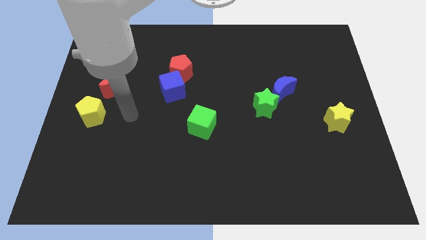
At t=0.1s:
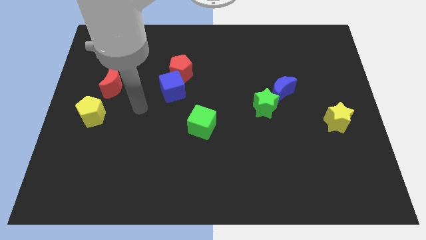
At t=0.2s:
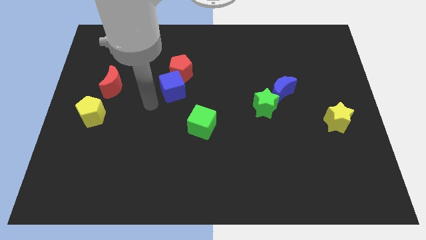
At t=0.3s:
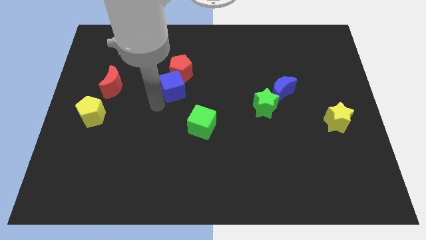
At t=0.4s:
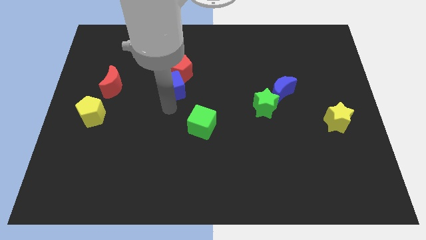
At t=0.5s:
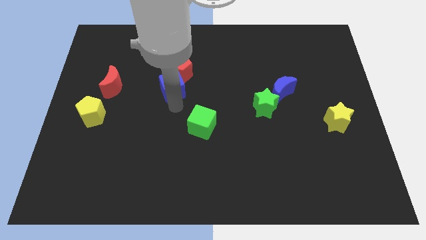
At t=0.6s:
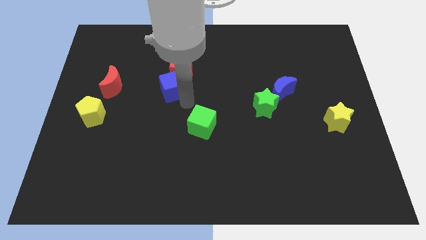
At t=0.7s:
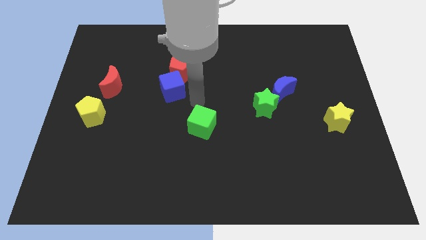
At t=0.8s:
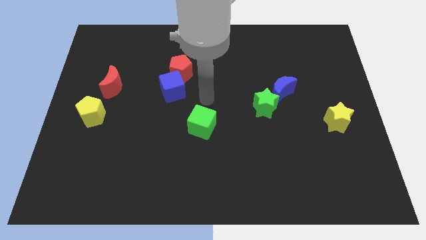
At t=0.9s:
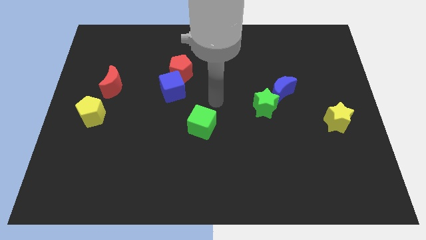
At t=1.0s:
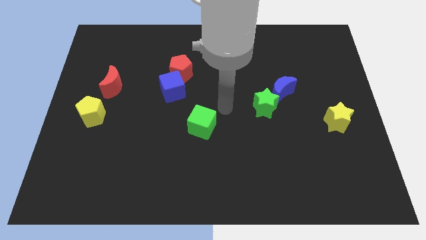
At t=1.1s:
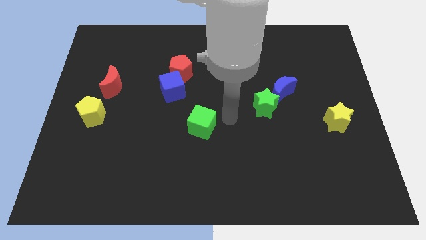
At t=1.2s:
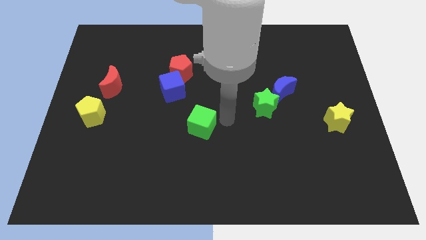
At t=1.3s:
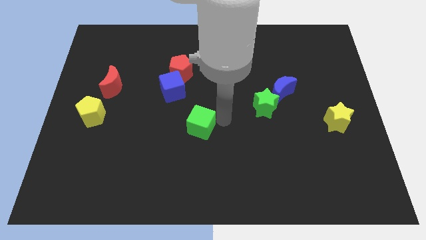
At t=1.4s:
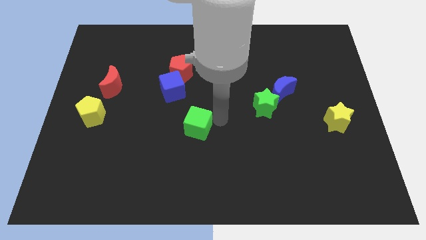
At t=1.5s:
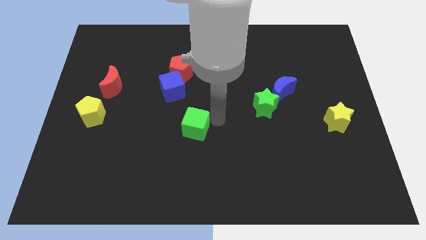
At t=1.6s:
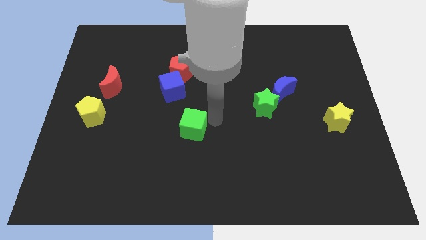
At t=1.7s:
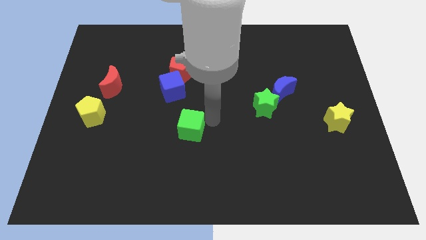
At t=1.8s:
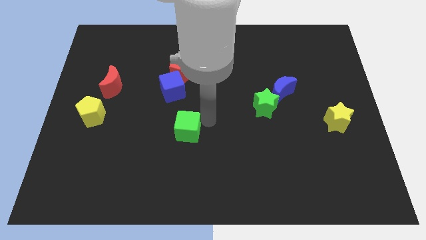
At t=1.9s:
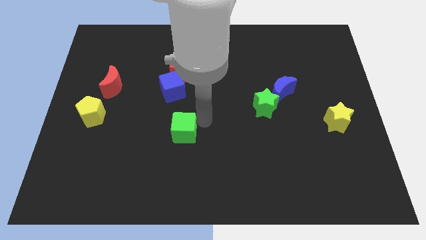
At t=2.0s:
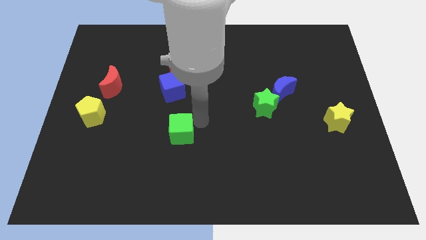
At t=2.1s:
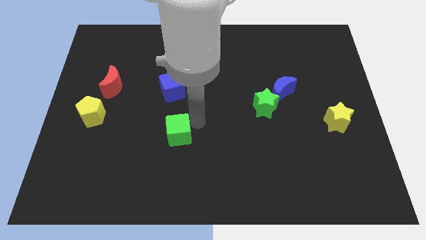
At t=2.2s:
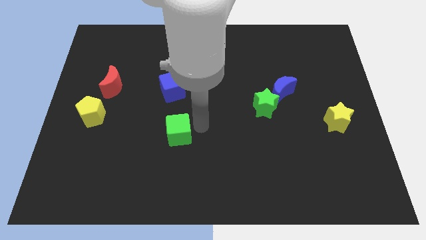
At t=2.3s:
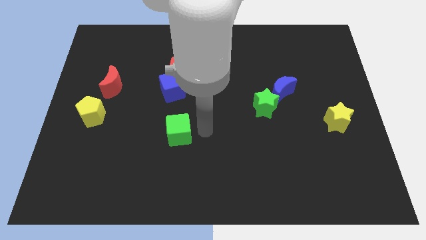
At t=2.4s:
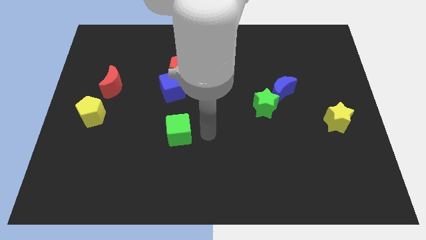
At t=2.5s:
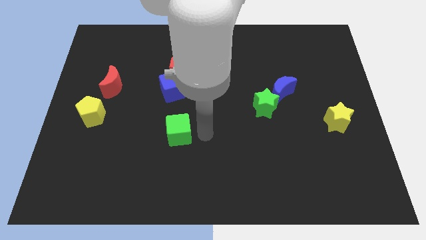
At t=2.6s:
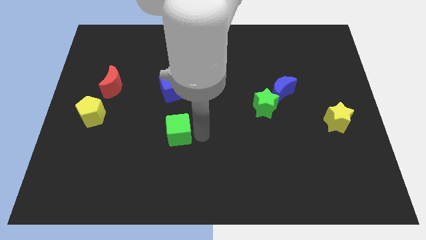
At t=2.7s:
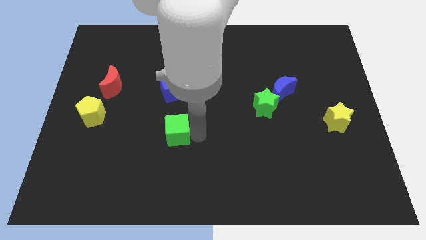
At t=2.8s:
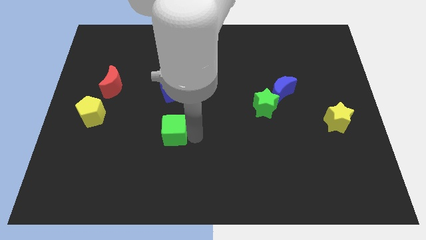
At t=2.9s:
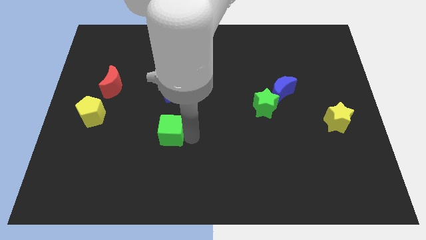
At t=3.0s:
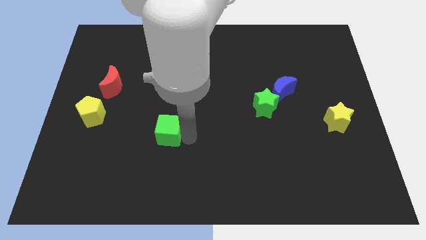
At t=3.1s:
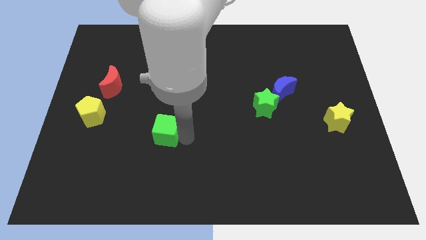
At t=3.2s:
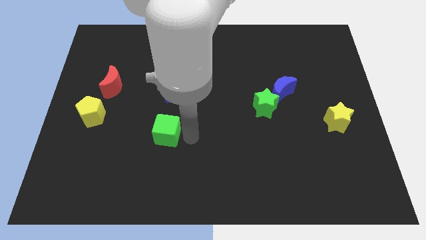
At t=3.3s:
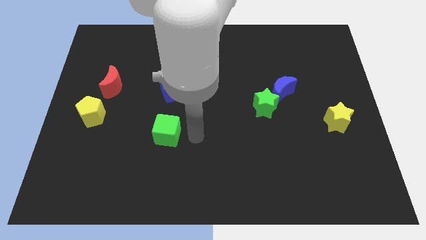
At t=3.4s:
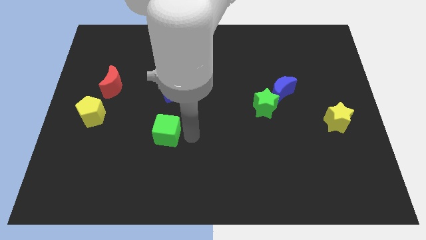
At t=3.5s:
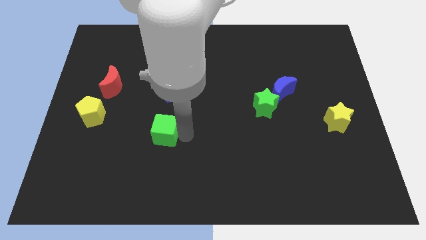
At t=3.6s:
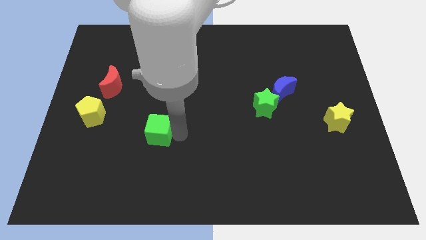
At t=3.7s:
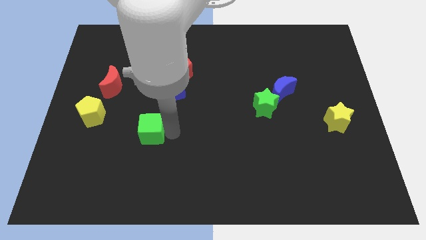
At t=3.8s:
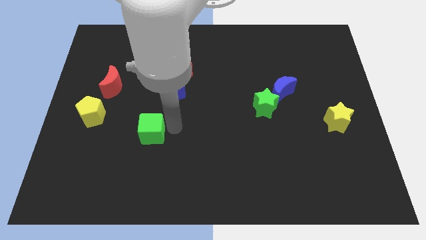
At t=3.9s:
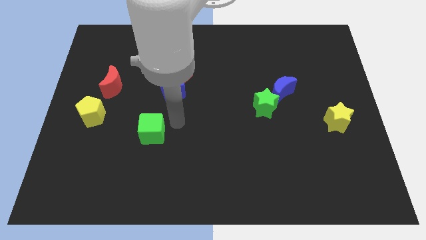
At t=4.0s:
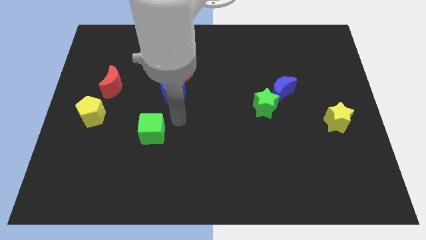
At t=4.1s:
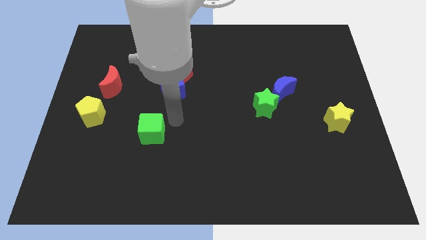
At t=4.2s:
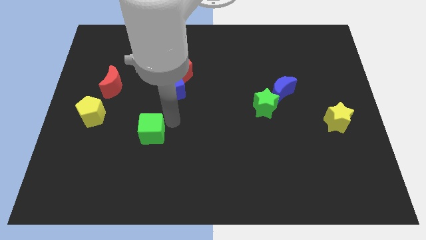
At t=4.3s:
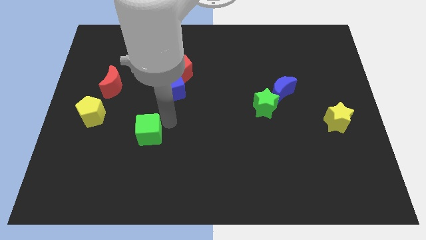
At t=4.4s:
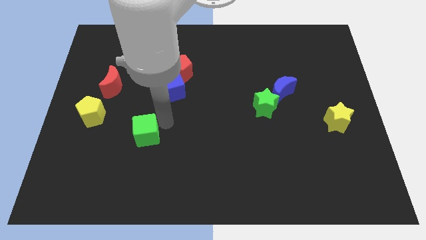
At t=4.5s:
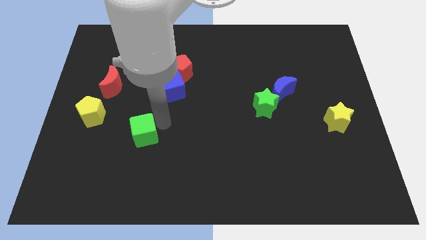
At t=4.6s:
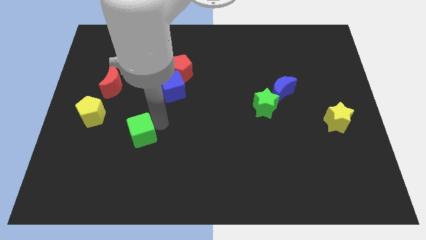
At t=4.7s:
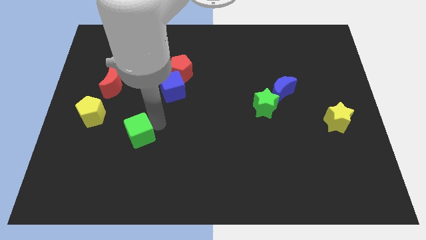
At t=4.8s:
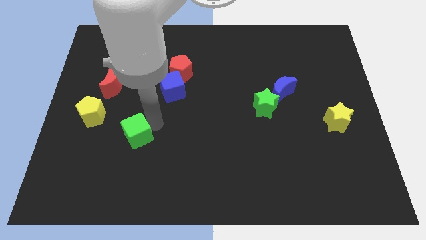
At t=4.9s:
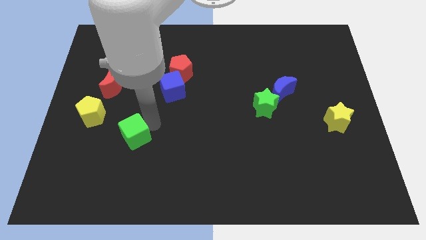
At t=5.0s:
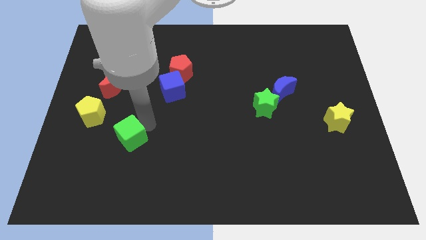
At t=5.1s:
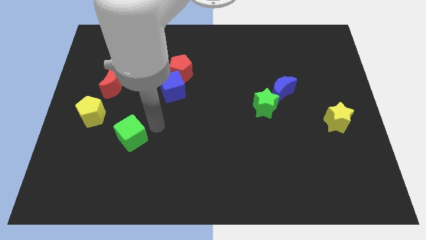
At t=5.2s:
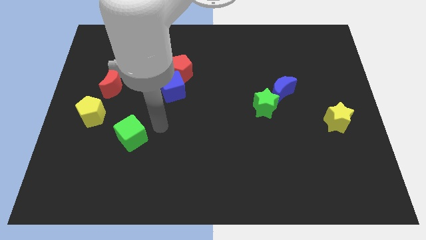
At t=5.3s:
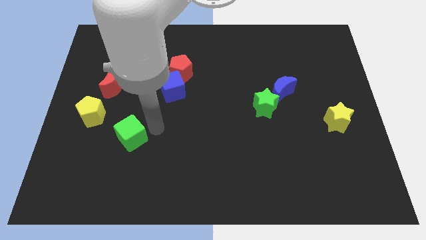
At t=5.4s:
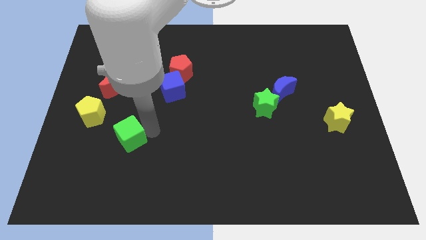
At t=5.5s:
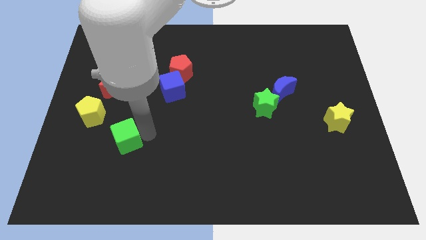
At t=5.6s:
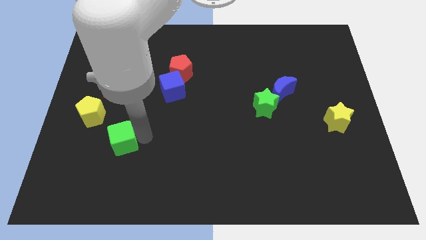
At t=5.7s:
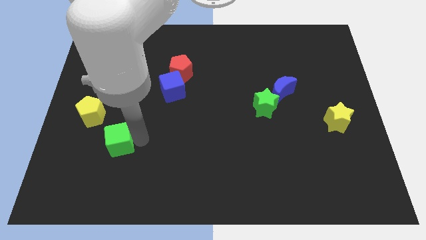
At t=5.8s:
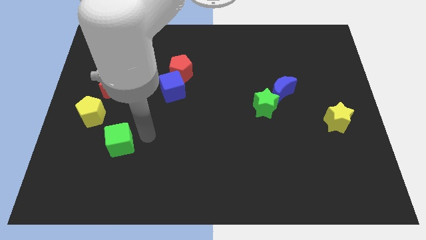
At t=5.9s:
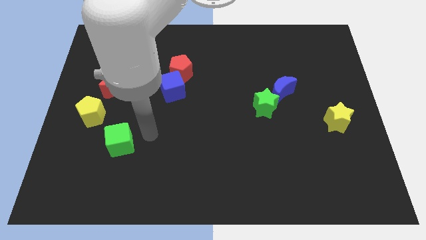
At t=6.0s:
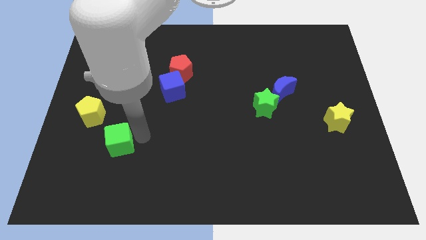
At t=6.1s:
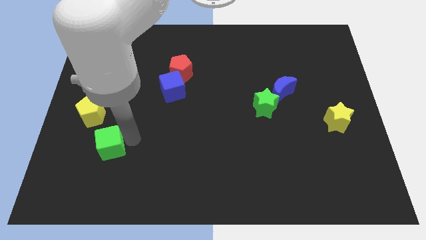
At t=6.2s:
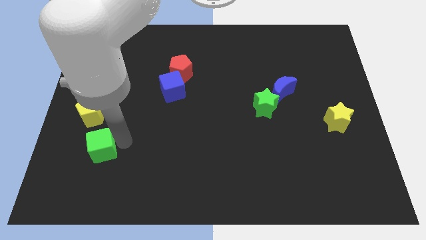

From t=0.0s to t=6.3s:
push the green cube to the bottom of the yellow pentagon

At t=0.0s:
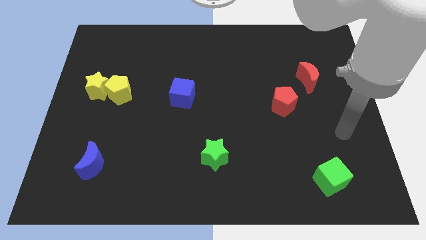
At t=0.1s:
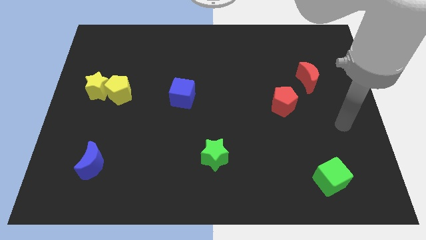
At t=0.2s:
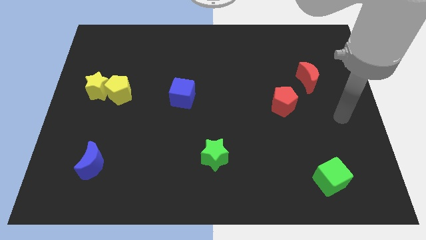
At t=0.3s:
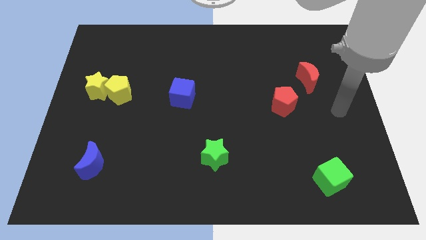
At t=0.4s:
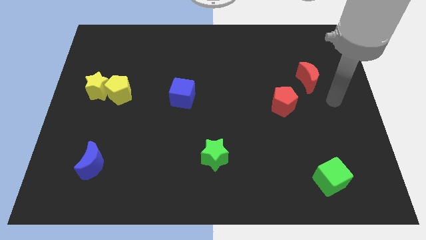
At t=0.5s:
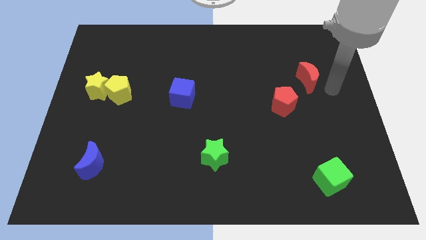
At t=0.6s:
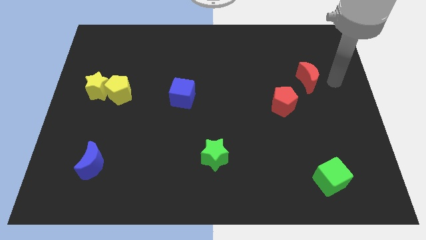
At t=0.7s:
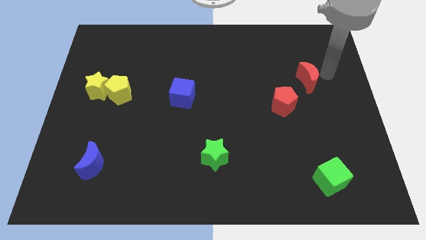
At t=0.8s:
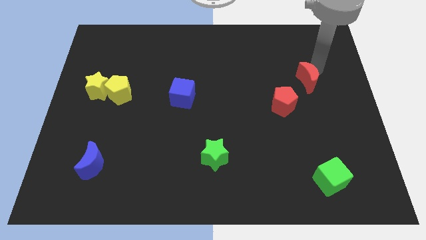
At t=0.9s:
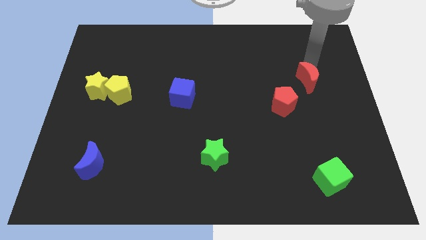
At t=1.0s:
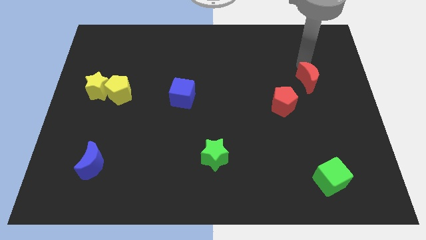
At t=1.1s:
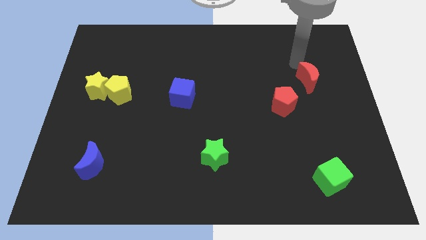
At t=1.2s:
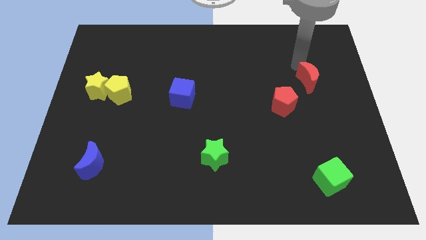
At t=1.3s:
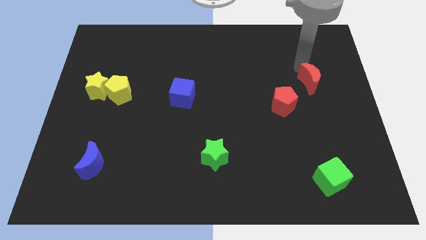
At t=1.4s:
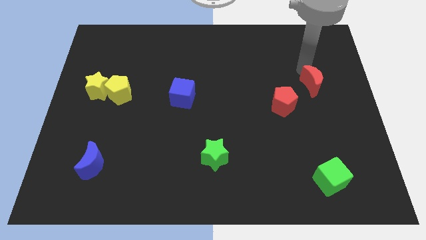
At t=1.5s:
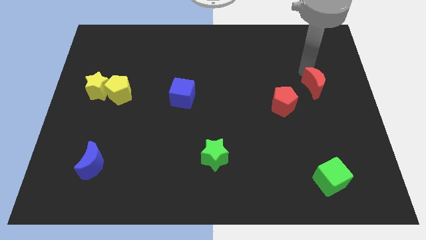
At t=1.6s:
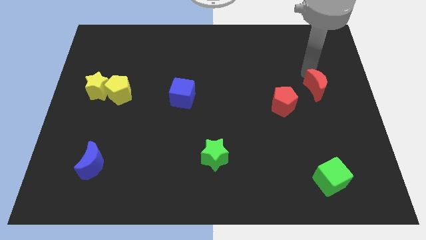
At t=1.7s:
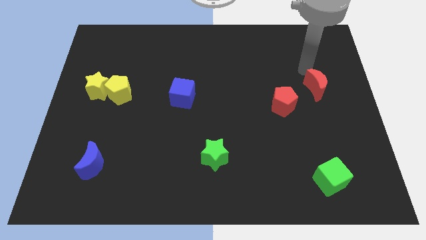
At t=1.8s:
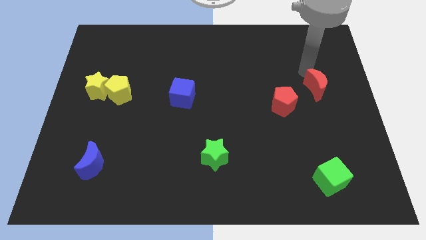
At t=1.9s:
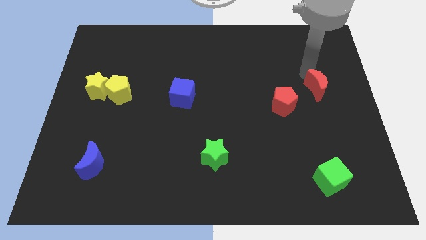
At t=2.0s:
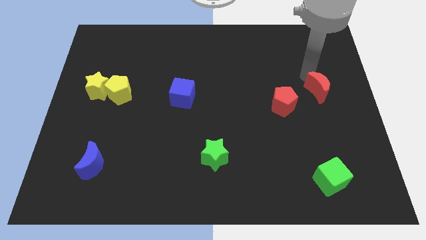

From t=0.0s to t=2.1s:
put the red moon just right of the red pentagon
